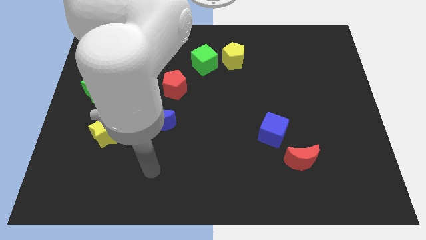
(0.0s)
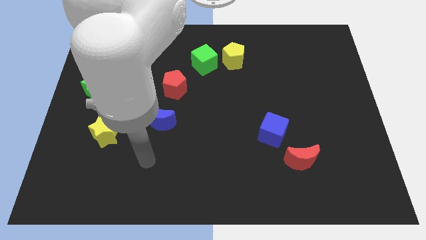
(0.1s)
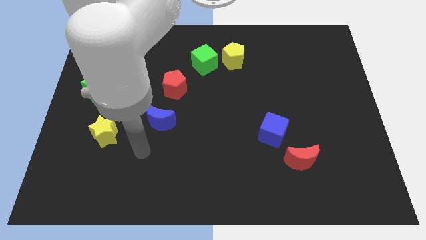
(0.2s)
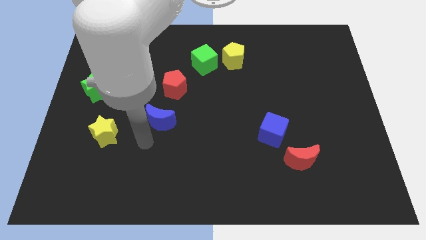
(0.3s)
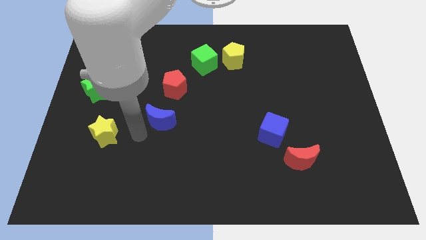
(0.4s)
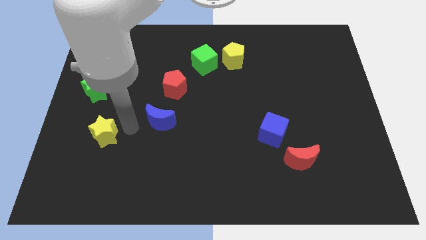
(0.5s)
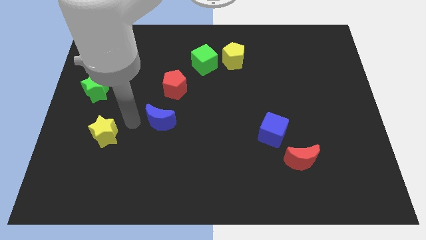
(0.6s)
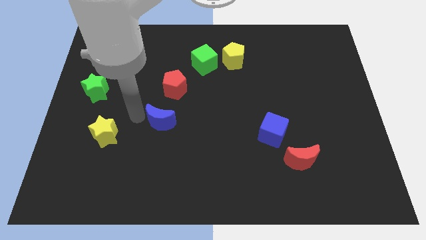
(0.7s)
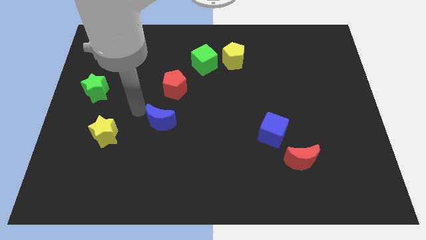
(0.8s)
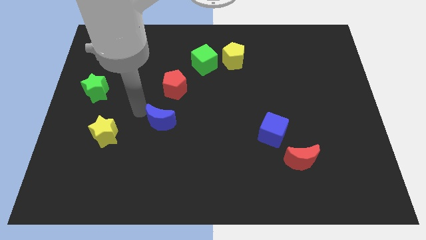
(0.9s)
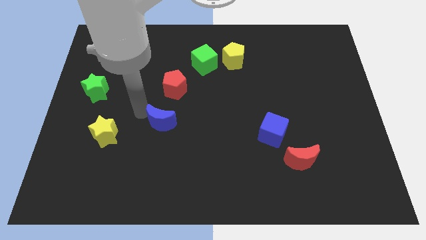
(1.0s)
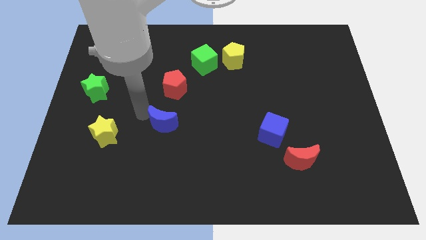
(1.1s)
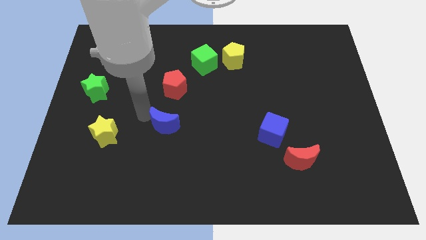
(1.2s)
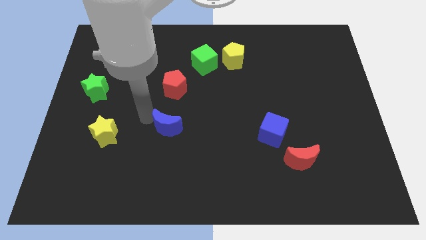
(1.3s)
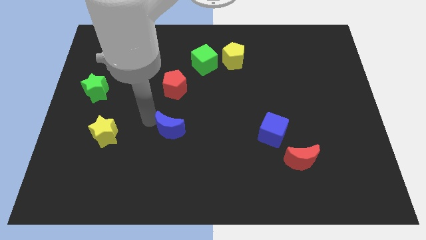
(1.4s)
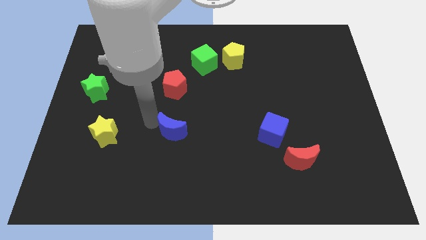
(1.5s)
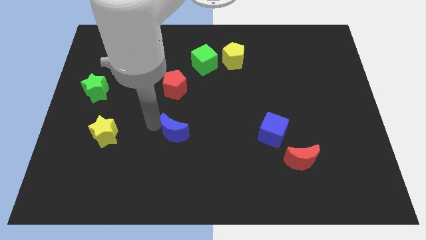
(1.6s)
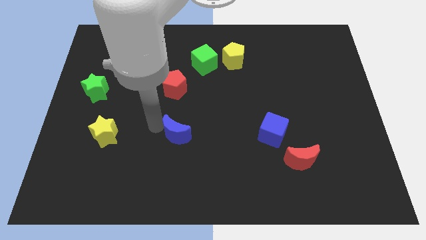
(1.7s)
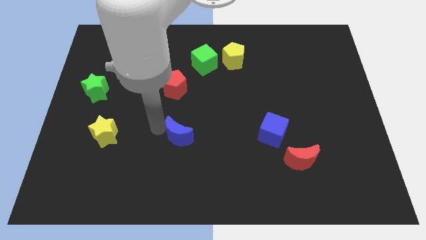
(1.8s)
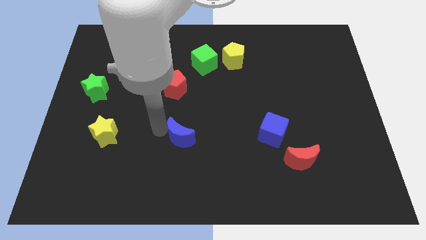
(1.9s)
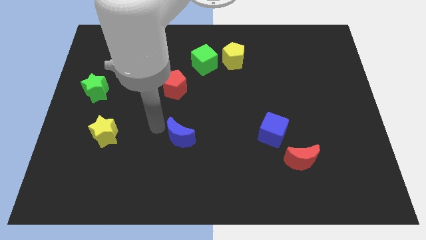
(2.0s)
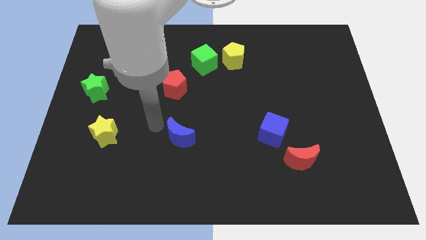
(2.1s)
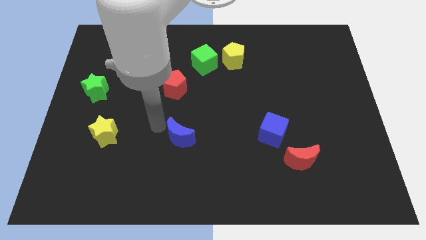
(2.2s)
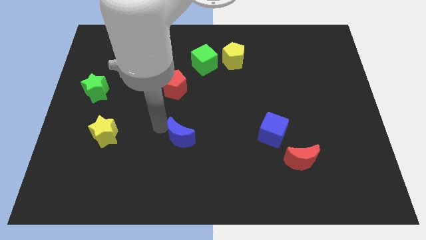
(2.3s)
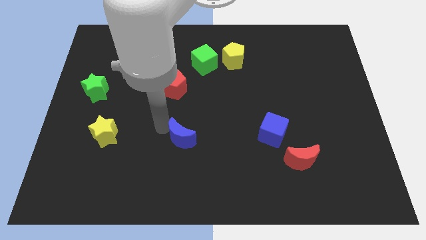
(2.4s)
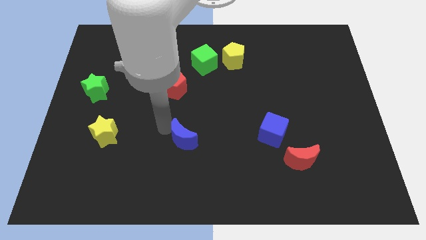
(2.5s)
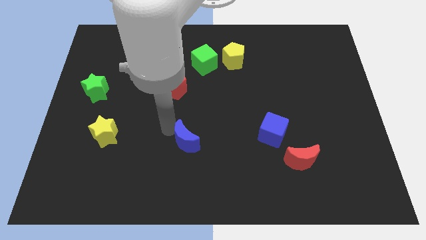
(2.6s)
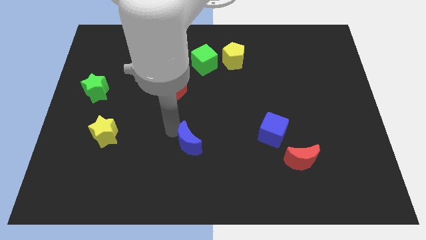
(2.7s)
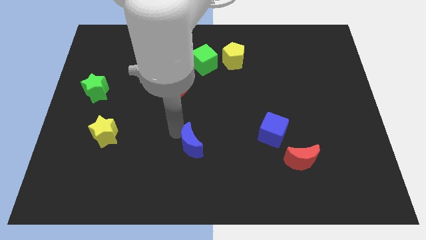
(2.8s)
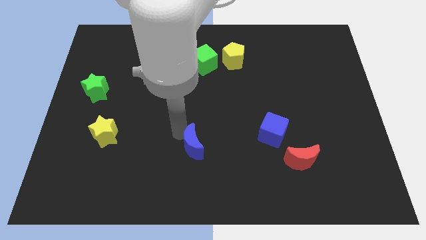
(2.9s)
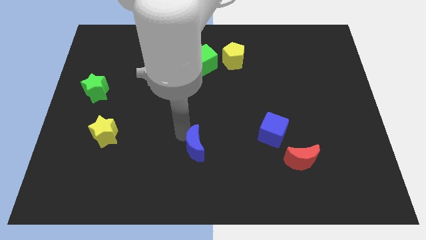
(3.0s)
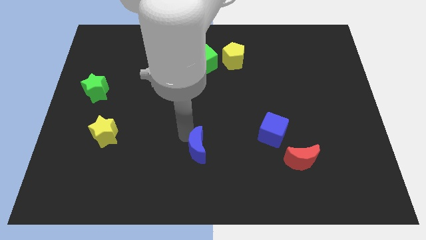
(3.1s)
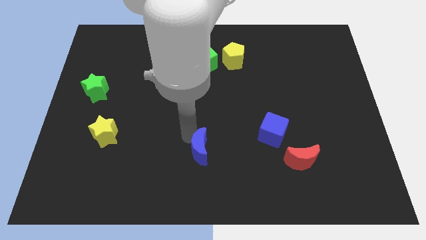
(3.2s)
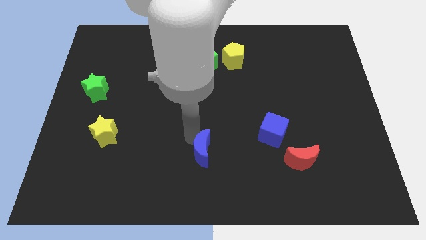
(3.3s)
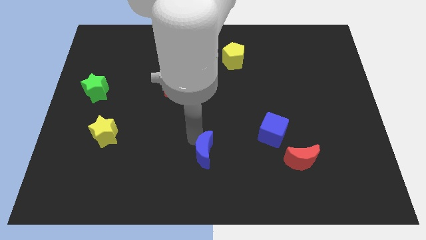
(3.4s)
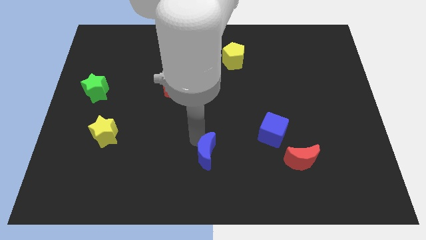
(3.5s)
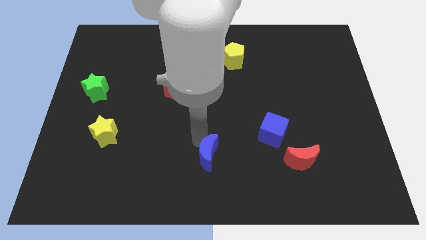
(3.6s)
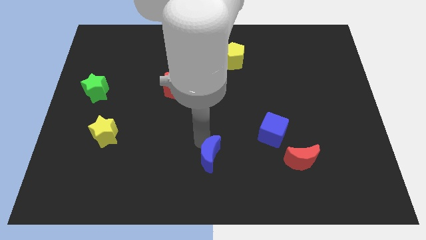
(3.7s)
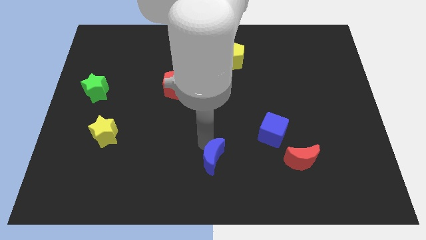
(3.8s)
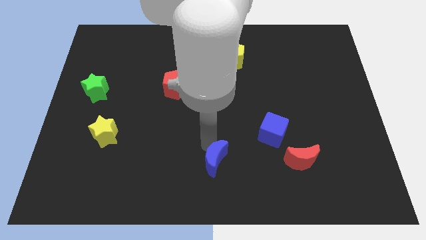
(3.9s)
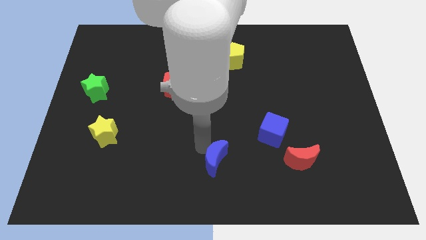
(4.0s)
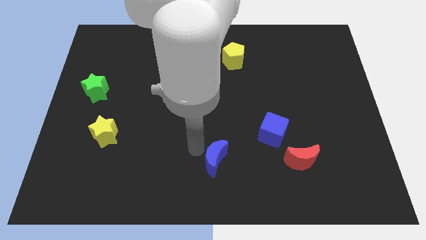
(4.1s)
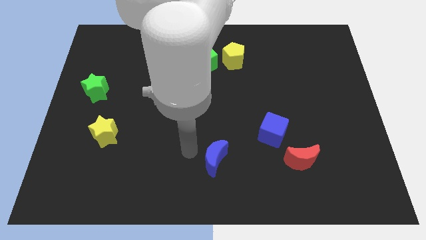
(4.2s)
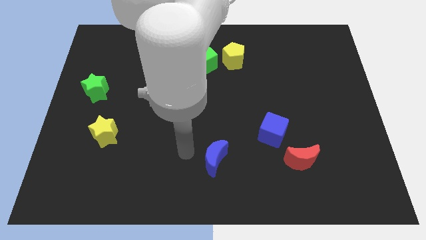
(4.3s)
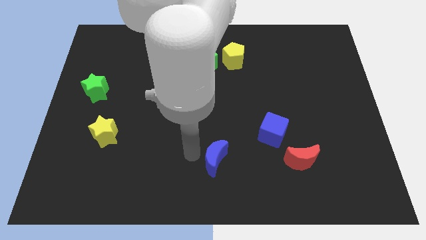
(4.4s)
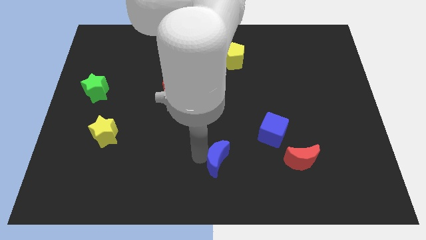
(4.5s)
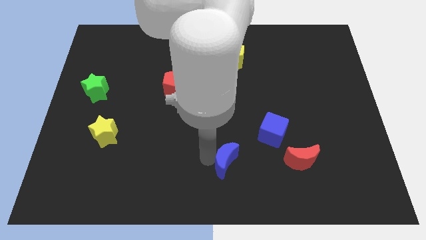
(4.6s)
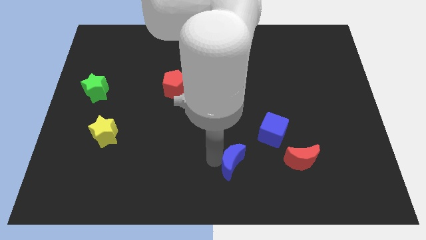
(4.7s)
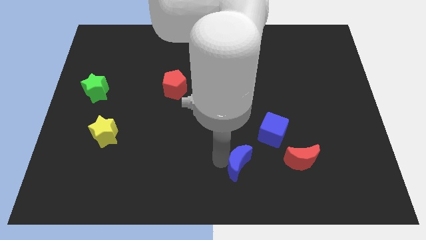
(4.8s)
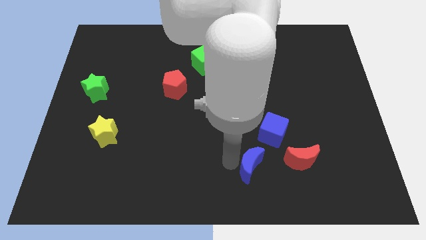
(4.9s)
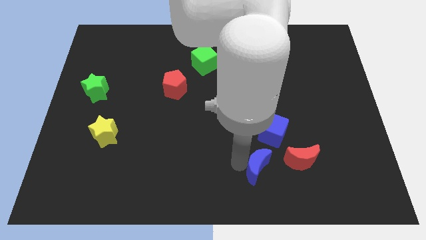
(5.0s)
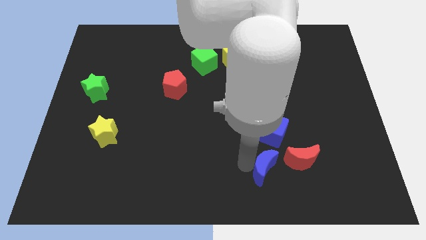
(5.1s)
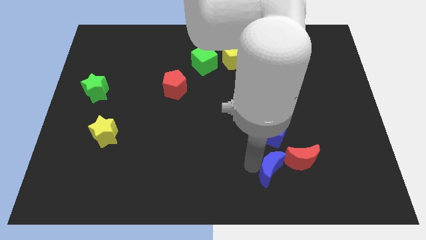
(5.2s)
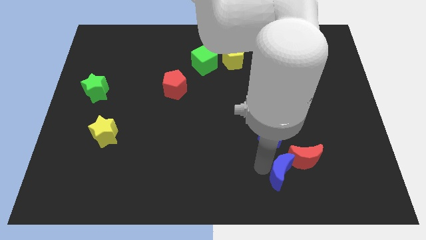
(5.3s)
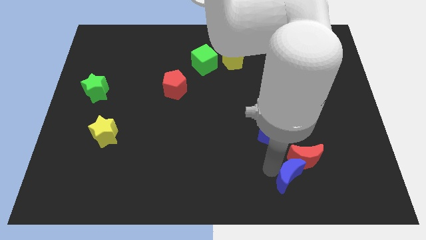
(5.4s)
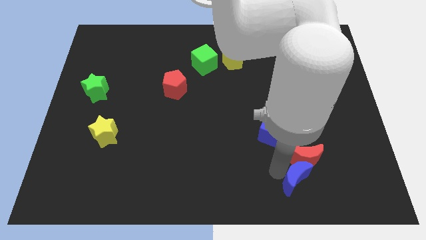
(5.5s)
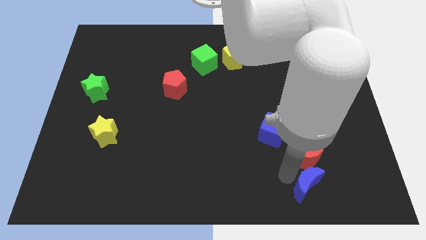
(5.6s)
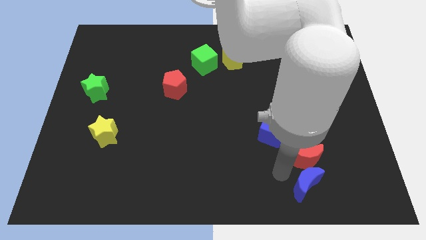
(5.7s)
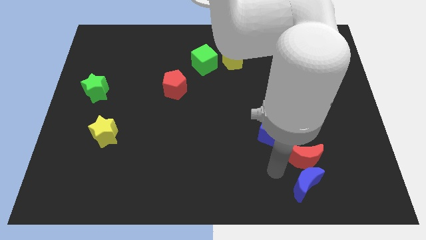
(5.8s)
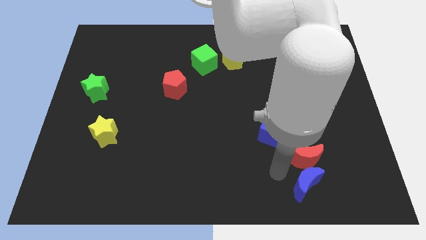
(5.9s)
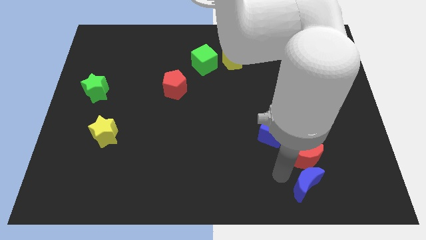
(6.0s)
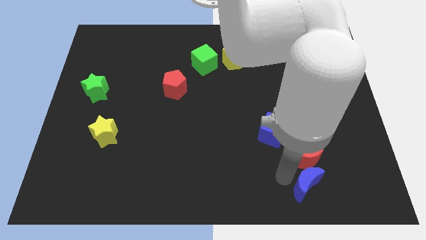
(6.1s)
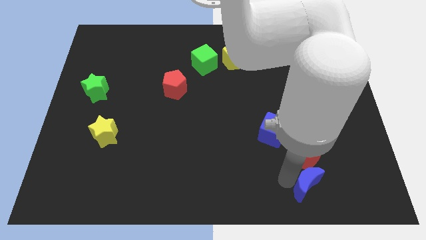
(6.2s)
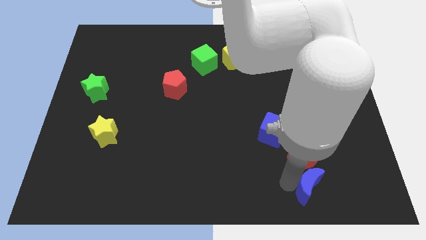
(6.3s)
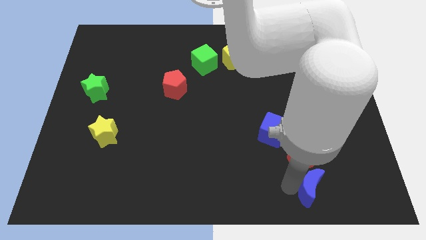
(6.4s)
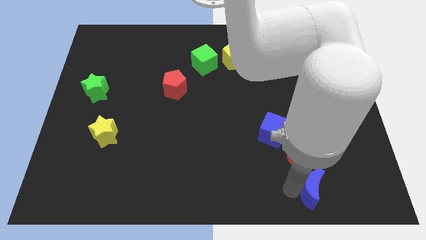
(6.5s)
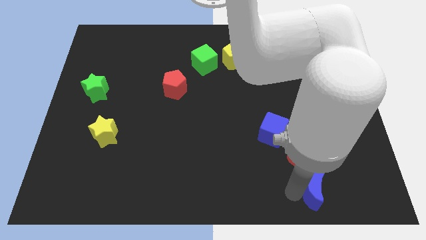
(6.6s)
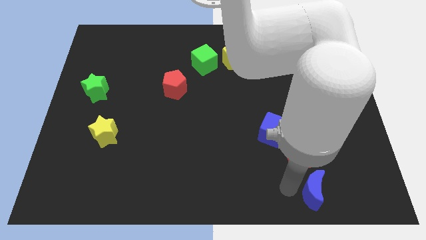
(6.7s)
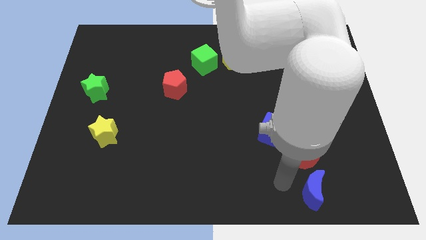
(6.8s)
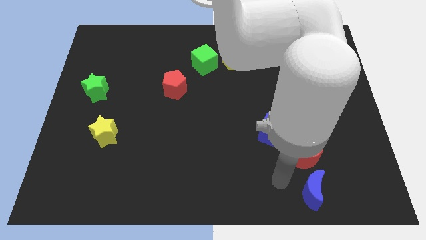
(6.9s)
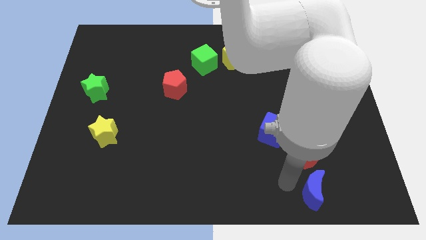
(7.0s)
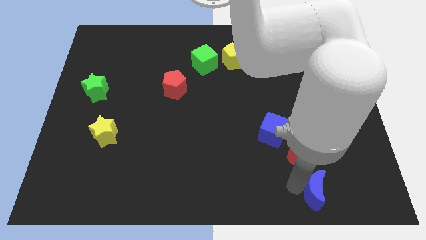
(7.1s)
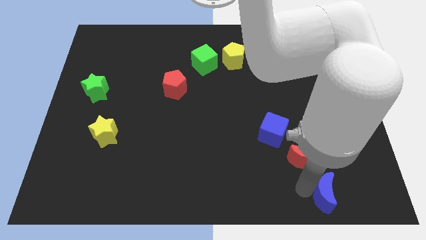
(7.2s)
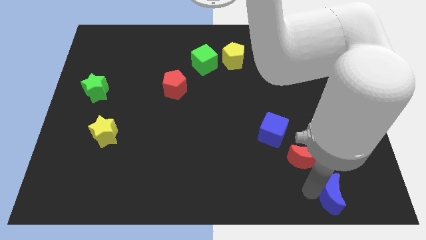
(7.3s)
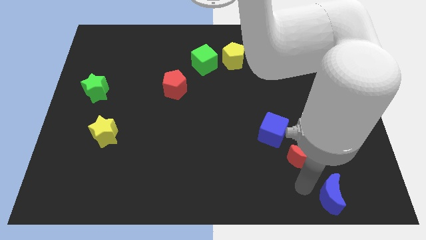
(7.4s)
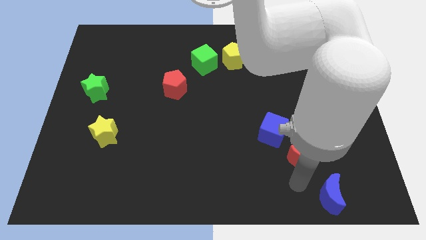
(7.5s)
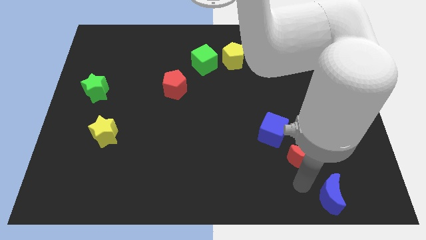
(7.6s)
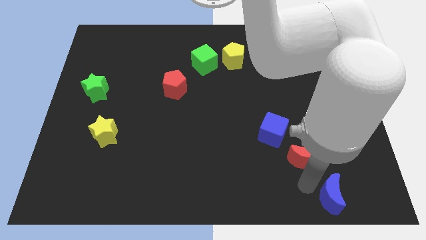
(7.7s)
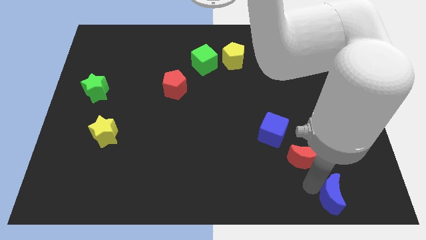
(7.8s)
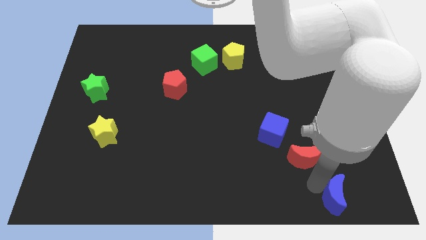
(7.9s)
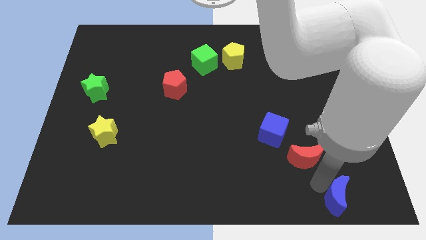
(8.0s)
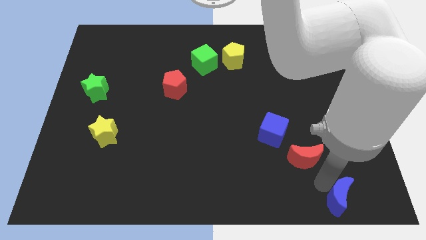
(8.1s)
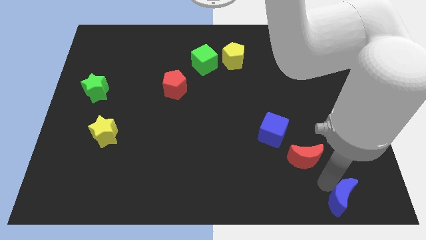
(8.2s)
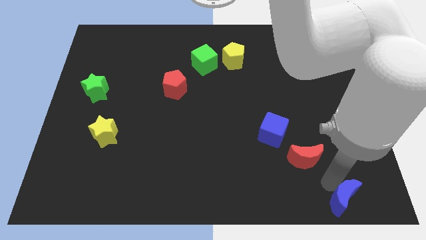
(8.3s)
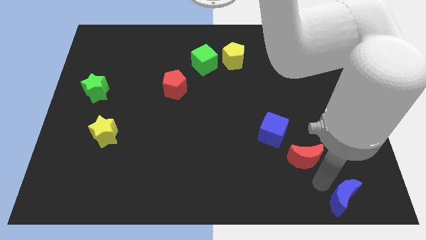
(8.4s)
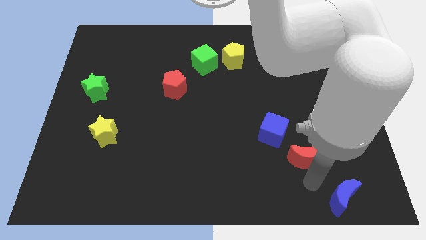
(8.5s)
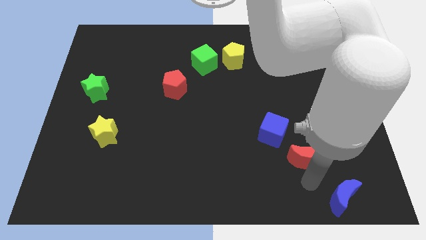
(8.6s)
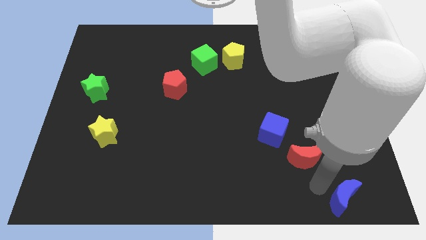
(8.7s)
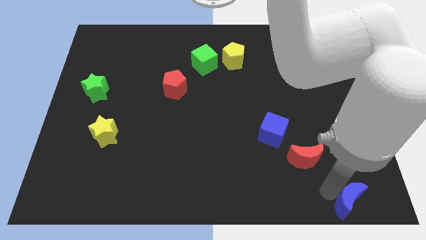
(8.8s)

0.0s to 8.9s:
push the blue moon to the bottom right
